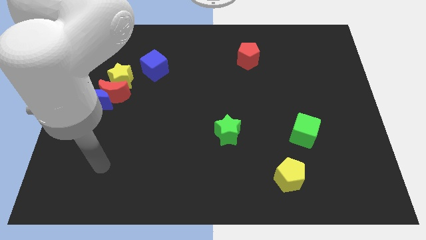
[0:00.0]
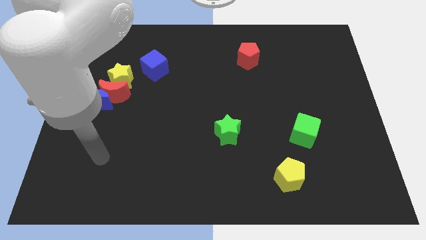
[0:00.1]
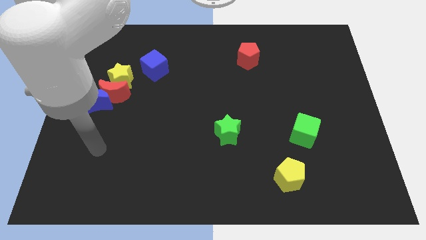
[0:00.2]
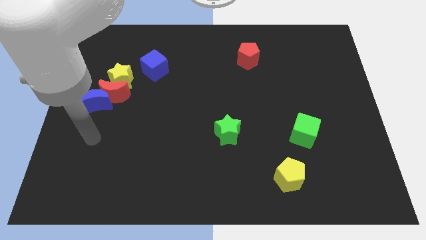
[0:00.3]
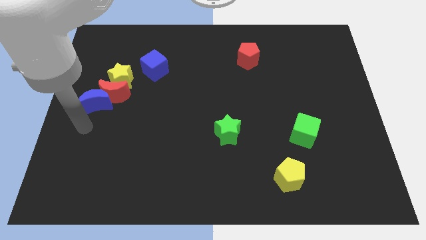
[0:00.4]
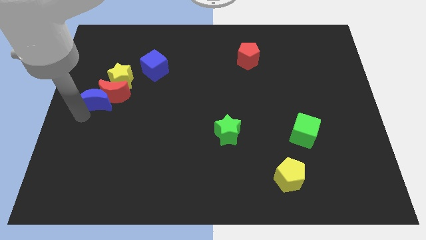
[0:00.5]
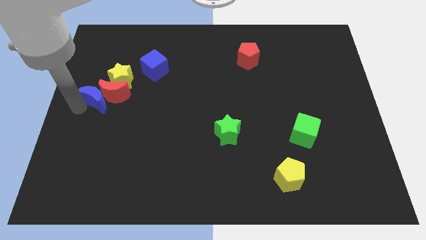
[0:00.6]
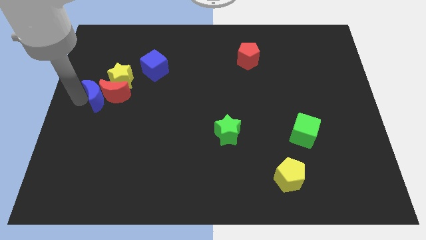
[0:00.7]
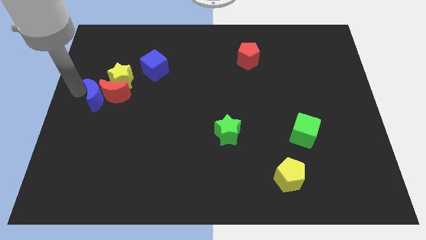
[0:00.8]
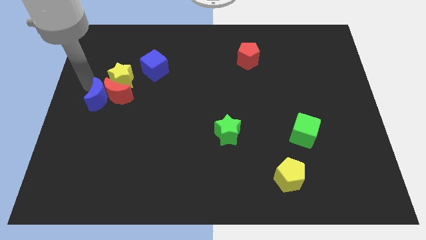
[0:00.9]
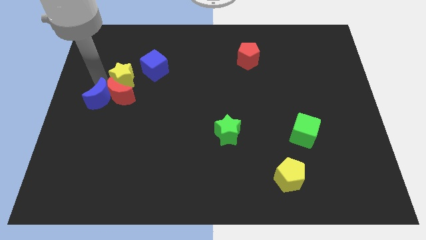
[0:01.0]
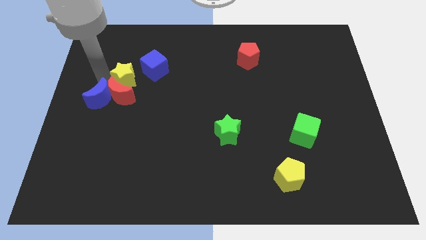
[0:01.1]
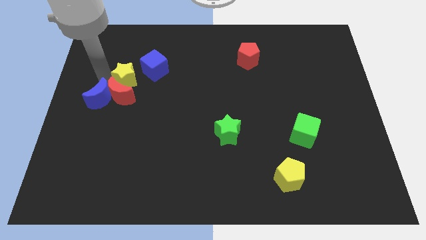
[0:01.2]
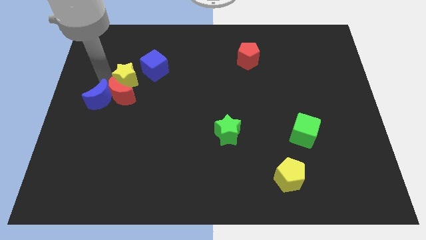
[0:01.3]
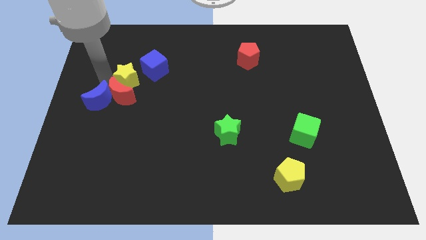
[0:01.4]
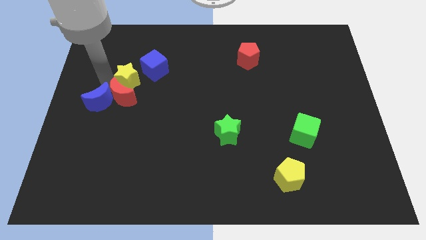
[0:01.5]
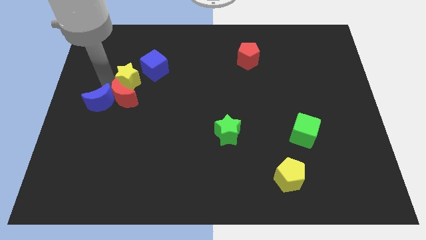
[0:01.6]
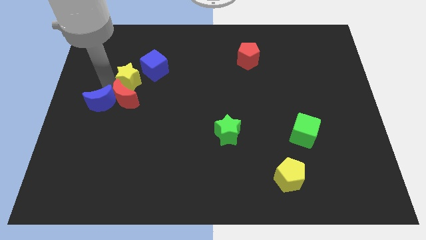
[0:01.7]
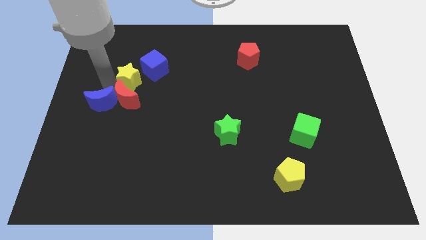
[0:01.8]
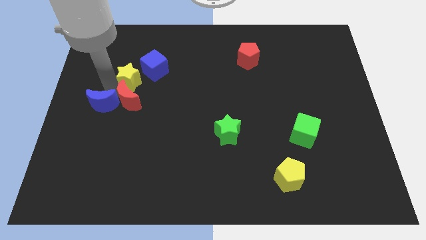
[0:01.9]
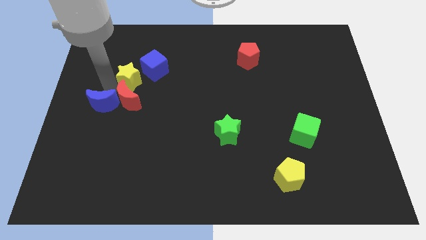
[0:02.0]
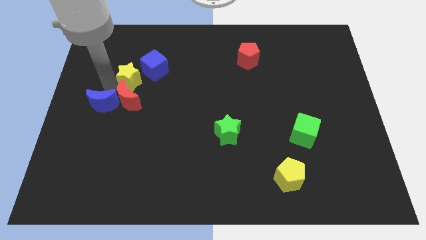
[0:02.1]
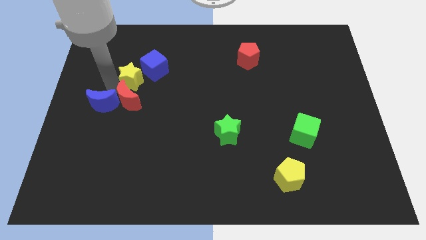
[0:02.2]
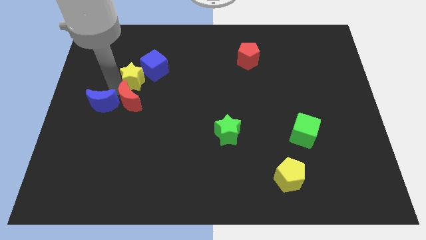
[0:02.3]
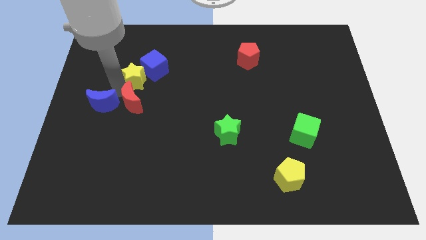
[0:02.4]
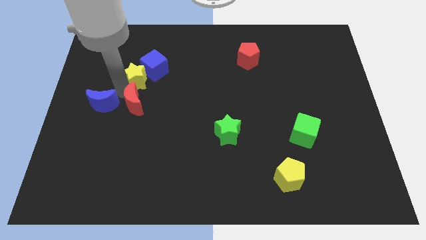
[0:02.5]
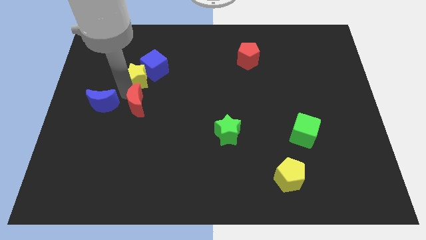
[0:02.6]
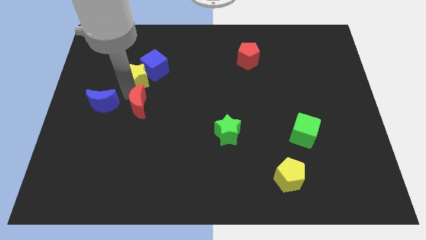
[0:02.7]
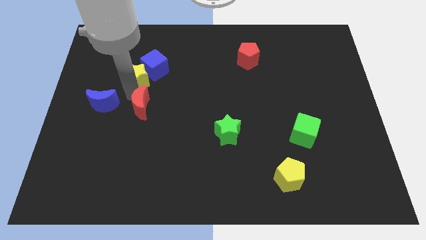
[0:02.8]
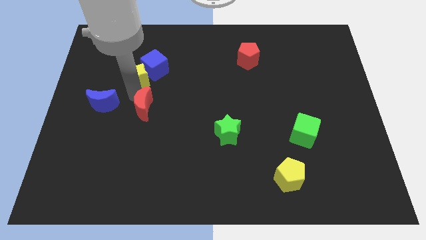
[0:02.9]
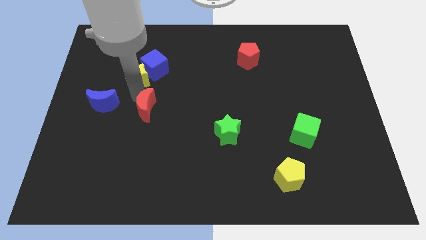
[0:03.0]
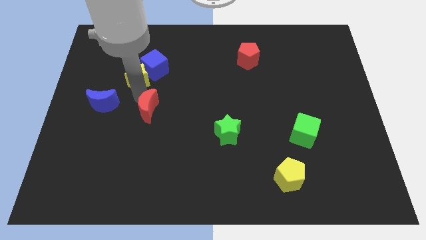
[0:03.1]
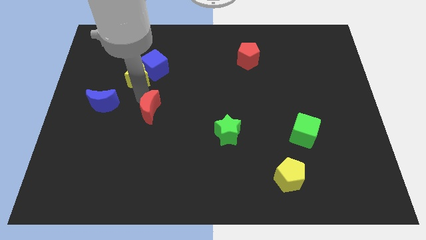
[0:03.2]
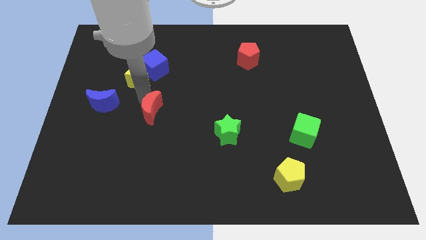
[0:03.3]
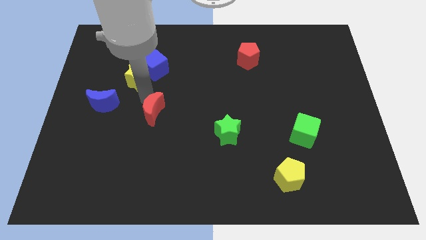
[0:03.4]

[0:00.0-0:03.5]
move the red moon away from the blue moon and yellow star

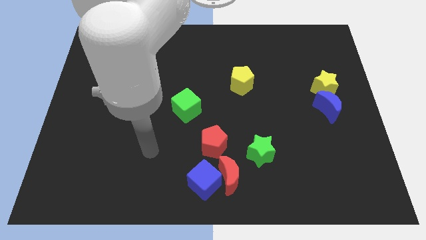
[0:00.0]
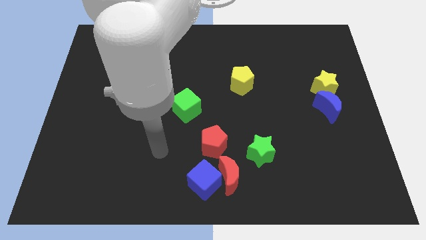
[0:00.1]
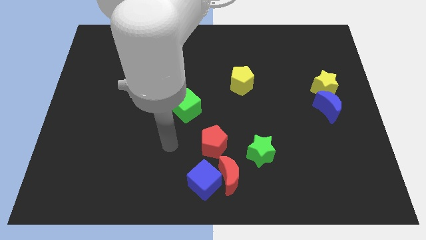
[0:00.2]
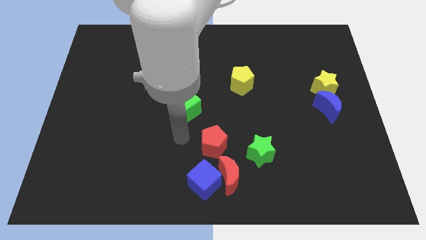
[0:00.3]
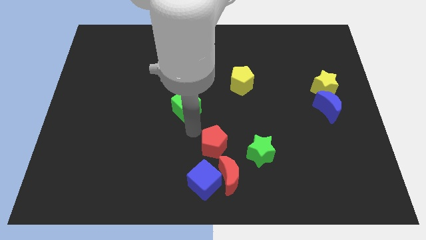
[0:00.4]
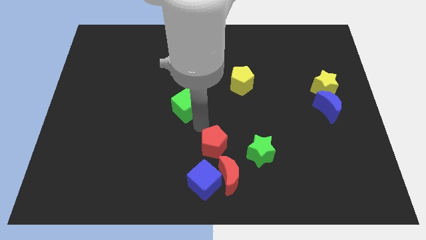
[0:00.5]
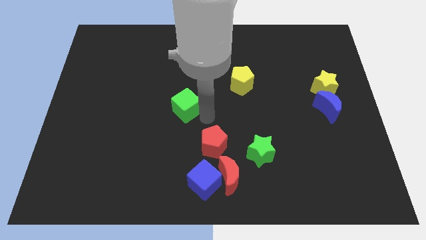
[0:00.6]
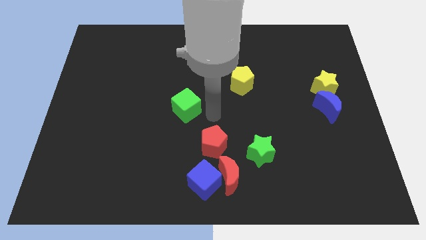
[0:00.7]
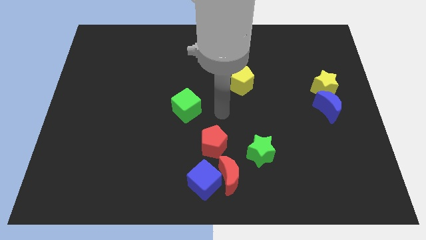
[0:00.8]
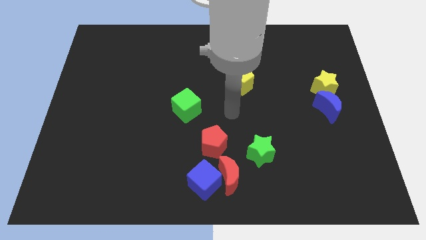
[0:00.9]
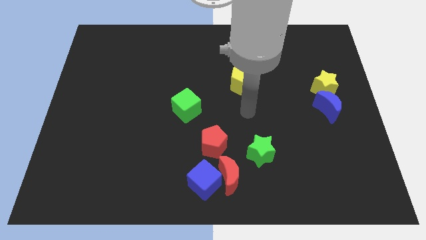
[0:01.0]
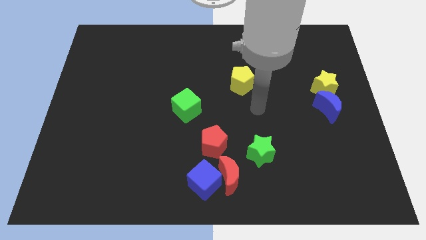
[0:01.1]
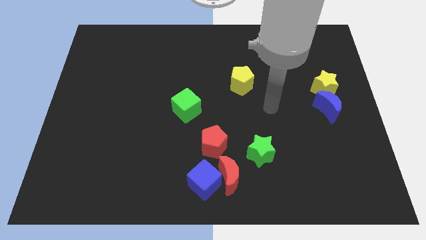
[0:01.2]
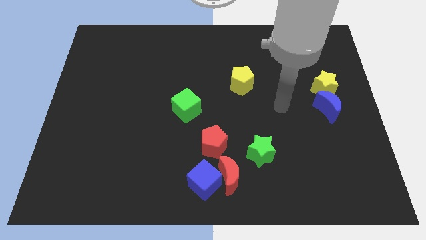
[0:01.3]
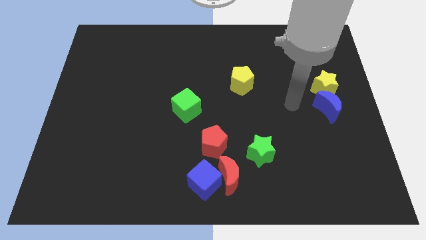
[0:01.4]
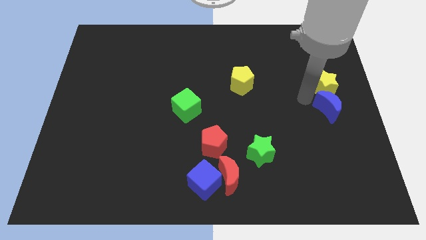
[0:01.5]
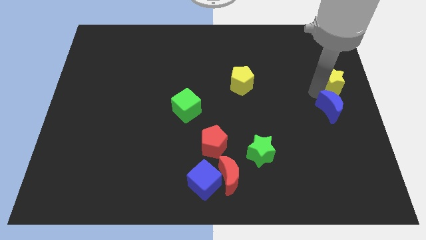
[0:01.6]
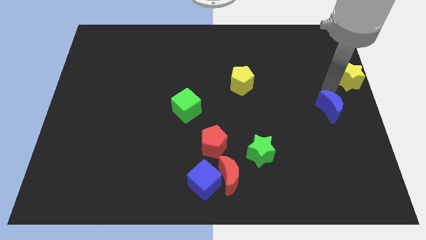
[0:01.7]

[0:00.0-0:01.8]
move the blue moon away from the yellow star

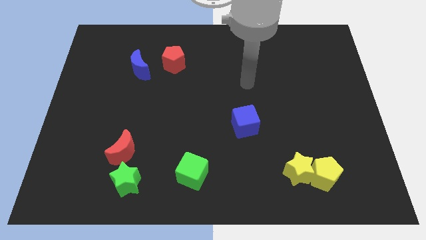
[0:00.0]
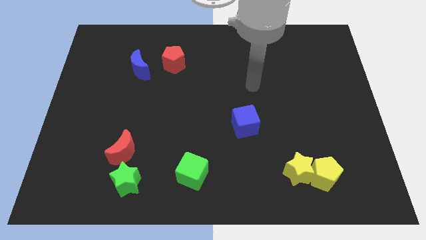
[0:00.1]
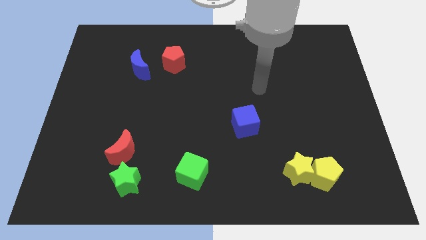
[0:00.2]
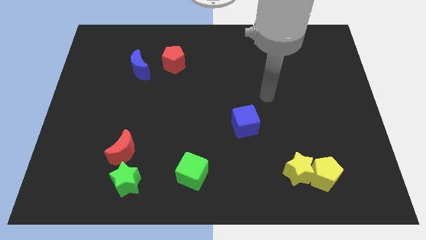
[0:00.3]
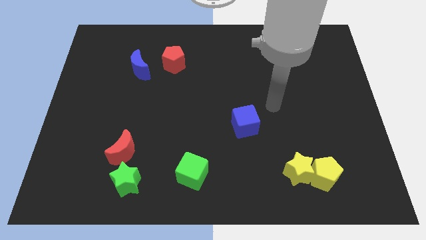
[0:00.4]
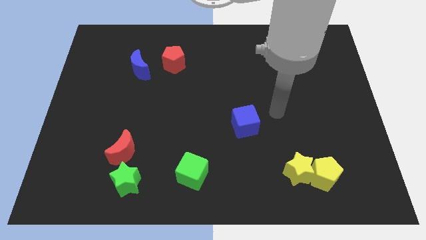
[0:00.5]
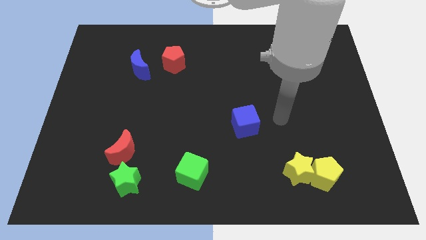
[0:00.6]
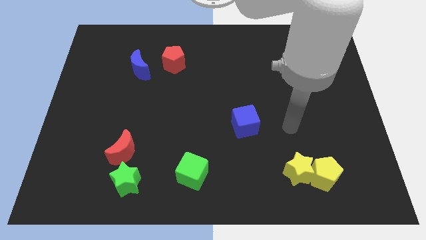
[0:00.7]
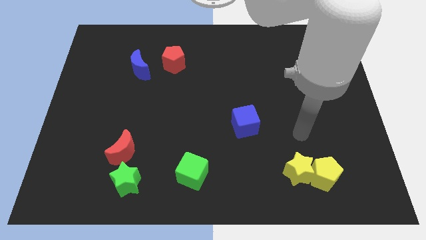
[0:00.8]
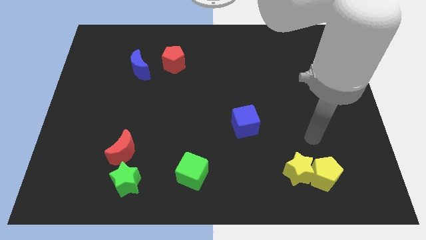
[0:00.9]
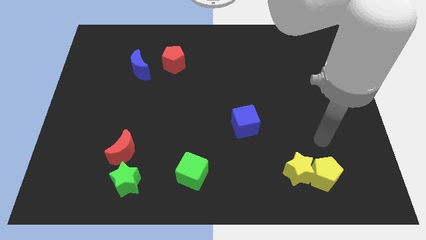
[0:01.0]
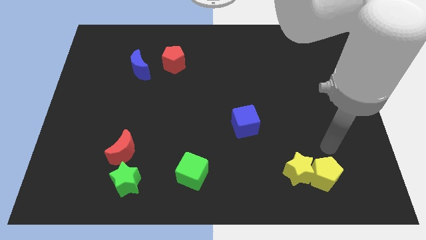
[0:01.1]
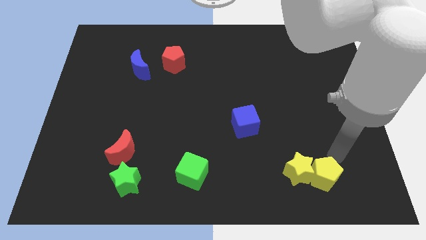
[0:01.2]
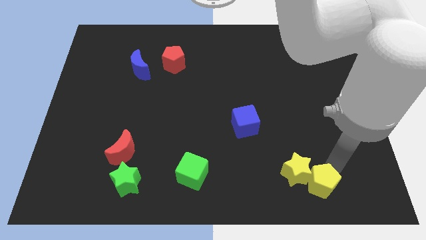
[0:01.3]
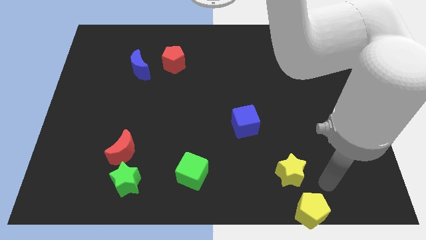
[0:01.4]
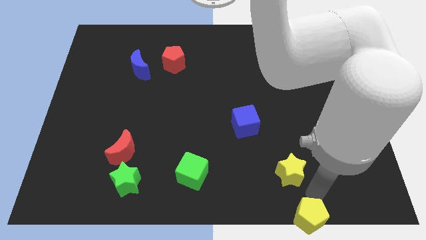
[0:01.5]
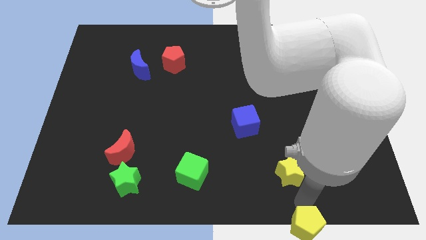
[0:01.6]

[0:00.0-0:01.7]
pull the yellow star apart from the yellow pentagon

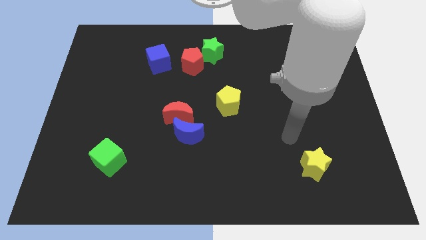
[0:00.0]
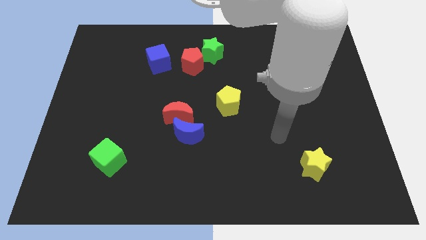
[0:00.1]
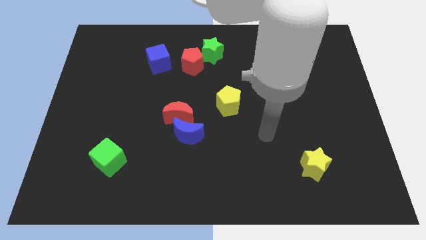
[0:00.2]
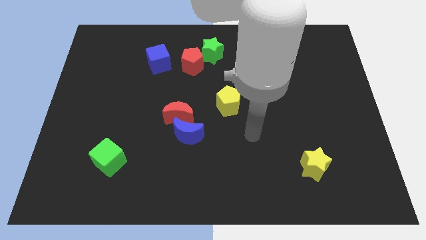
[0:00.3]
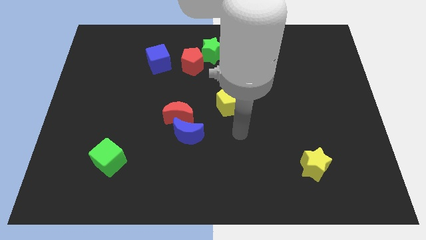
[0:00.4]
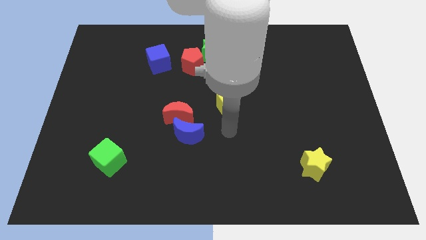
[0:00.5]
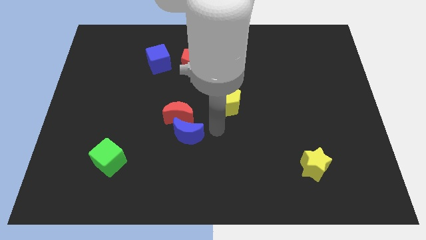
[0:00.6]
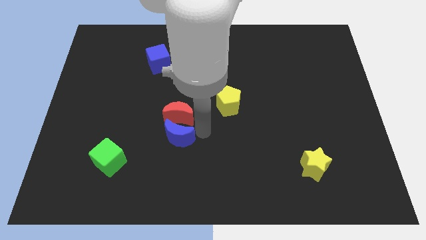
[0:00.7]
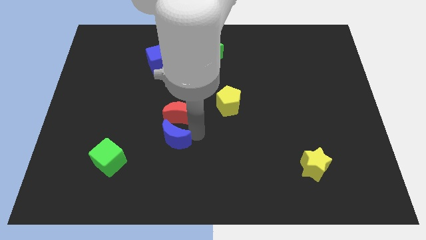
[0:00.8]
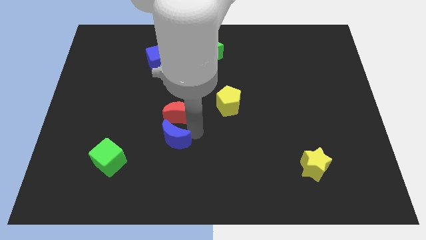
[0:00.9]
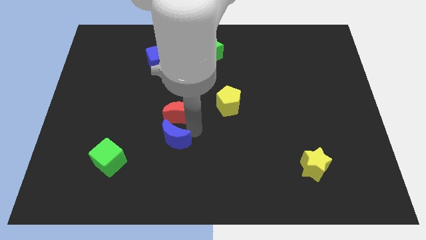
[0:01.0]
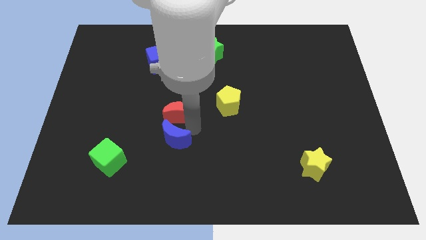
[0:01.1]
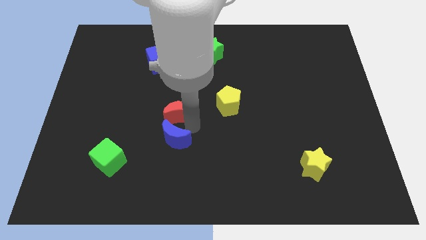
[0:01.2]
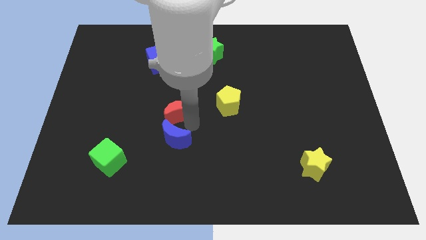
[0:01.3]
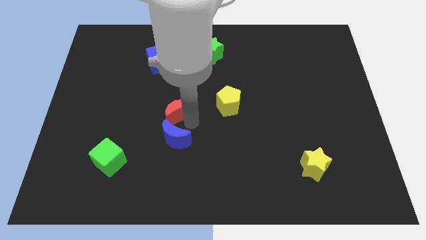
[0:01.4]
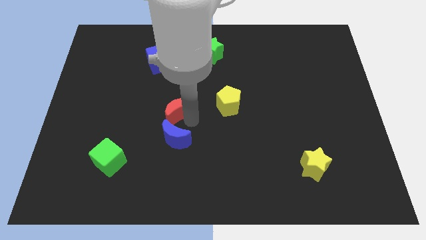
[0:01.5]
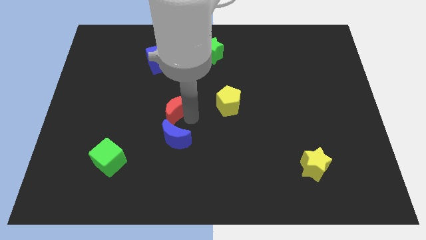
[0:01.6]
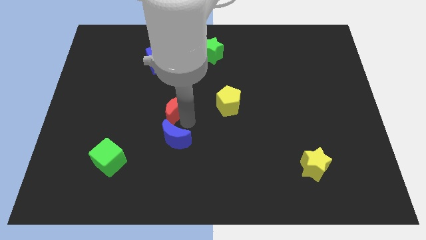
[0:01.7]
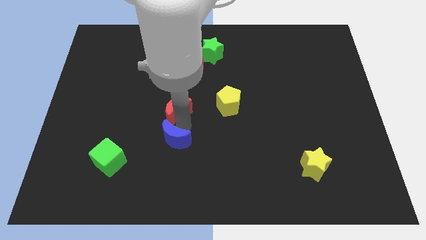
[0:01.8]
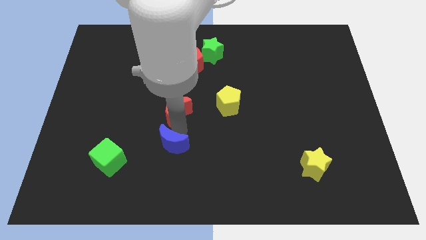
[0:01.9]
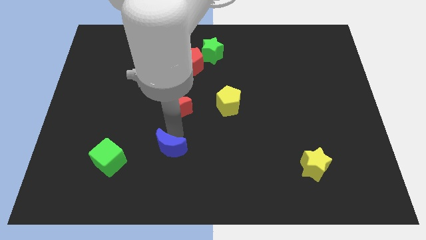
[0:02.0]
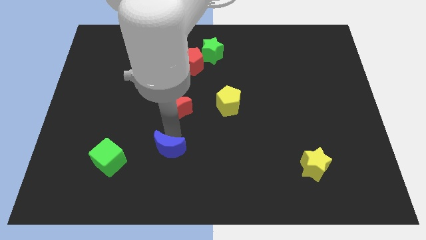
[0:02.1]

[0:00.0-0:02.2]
move the red moon away from the blue moon
